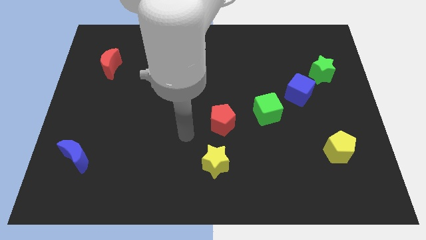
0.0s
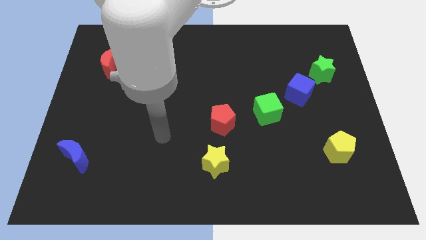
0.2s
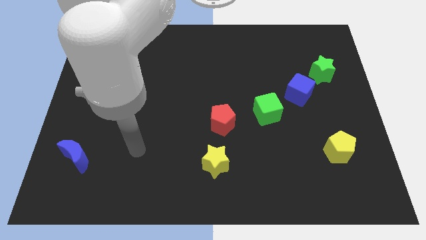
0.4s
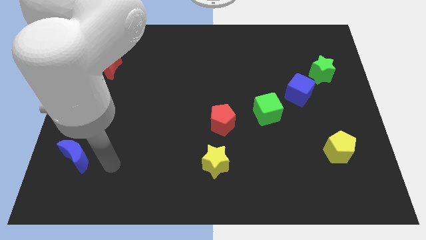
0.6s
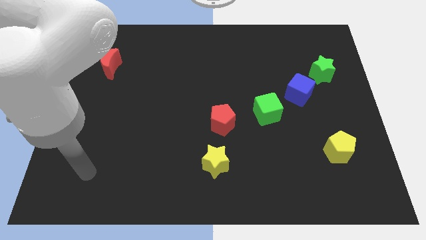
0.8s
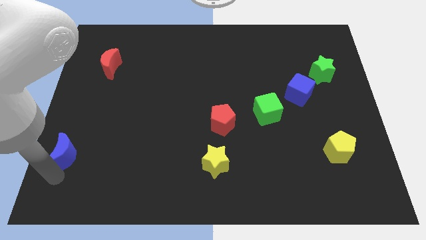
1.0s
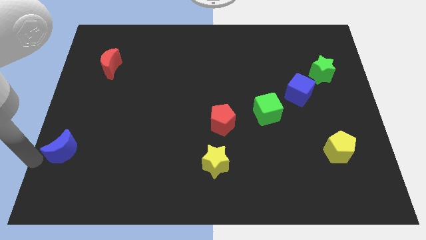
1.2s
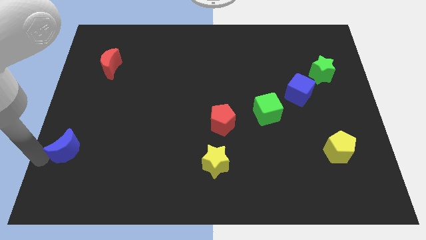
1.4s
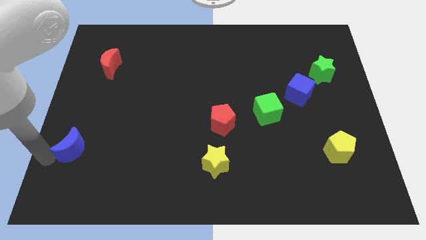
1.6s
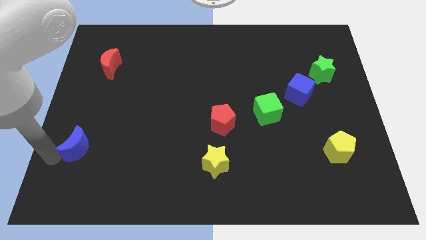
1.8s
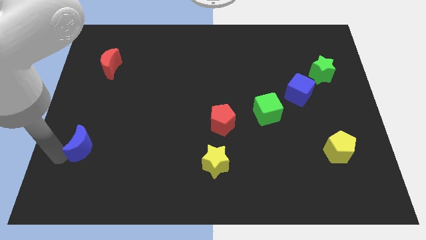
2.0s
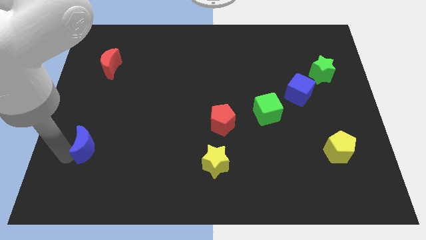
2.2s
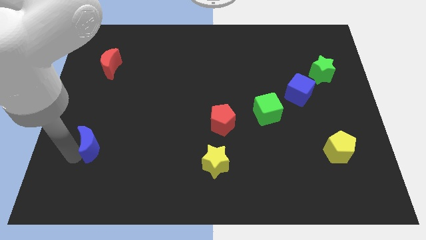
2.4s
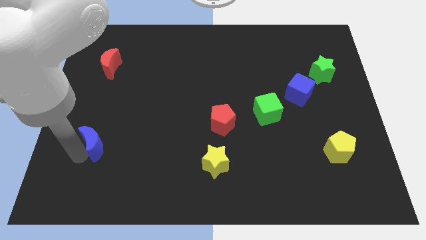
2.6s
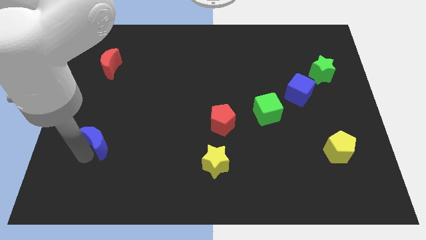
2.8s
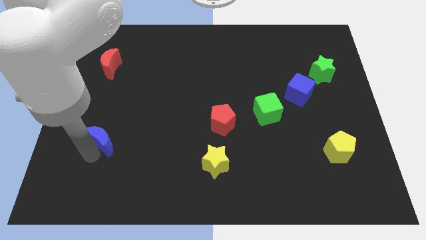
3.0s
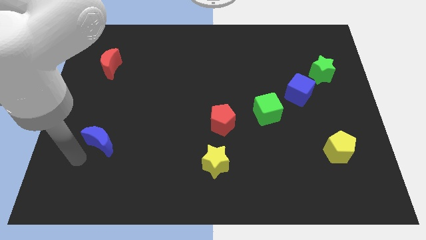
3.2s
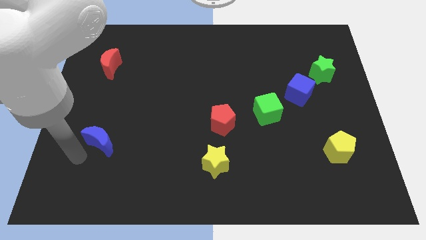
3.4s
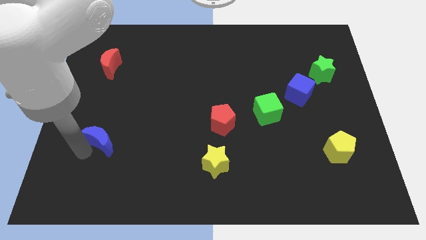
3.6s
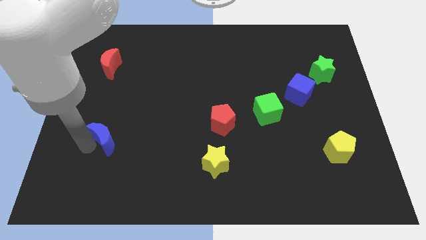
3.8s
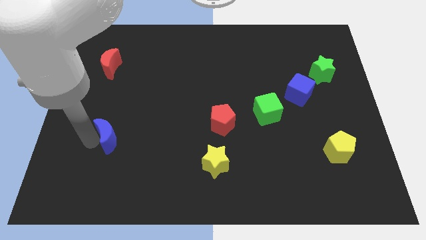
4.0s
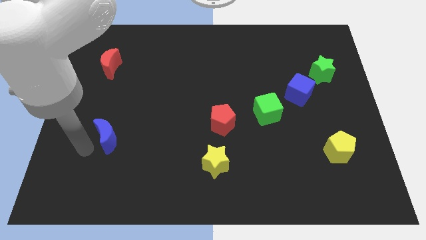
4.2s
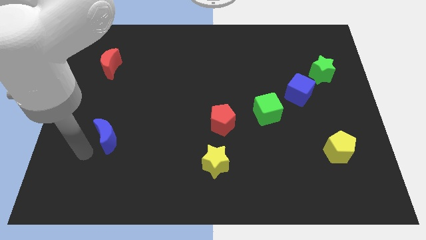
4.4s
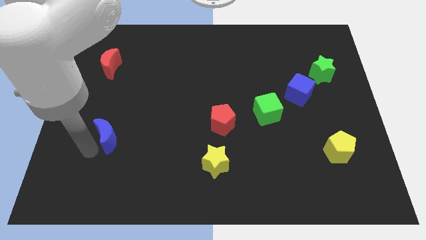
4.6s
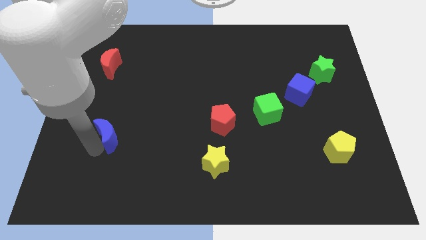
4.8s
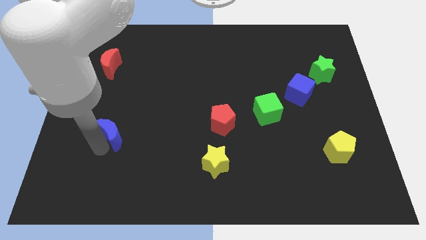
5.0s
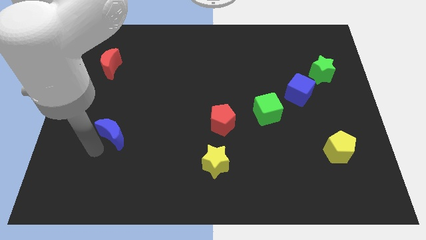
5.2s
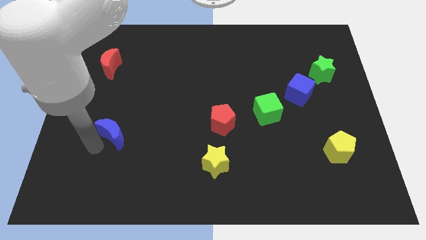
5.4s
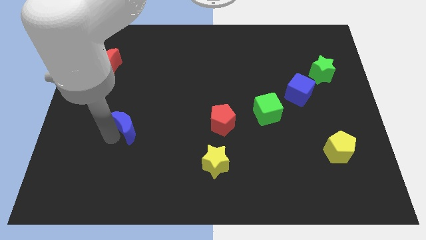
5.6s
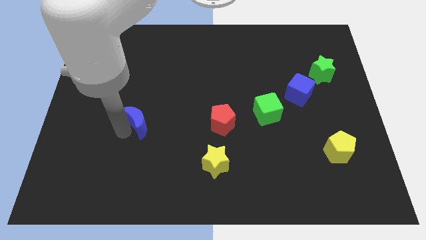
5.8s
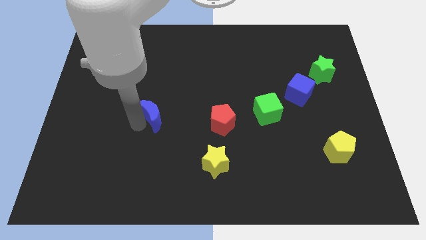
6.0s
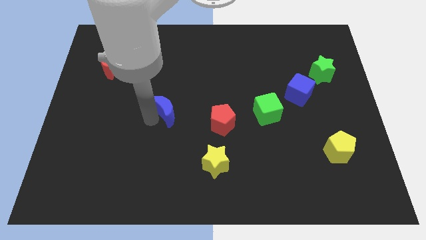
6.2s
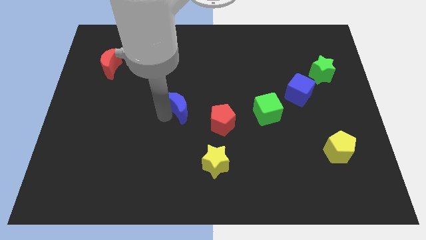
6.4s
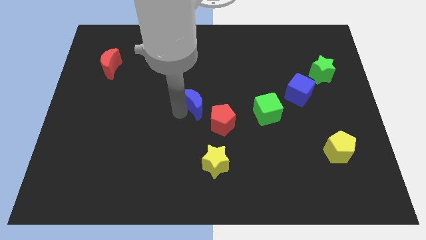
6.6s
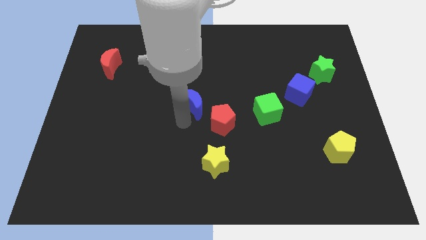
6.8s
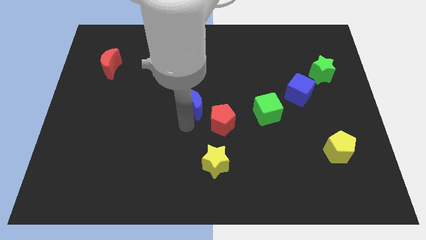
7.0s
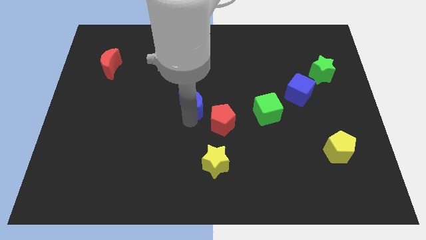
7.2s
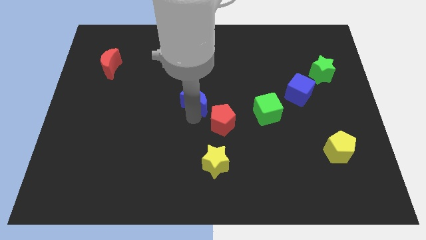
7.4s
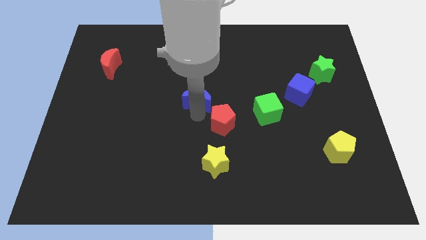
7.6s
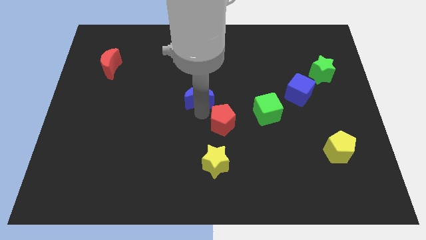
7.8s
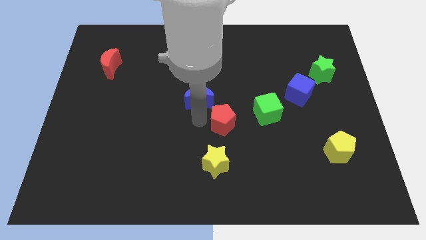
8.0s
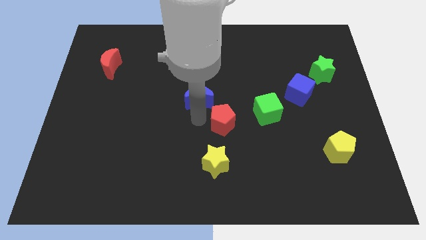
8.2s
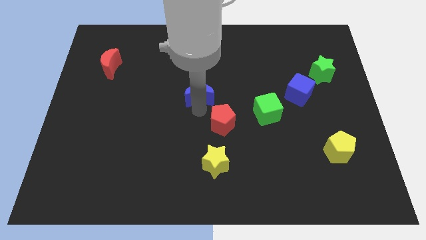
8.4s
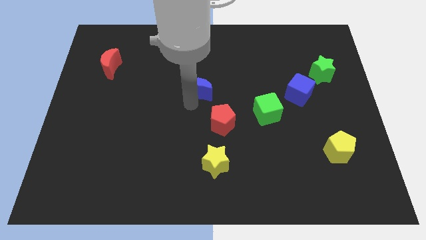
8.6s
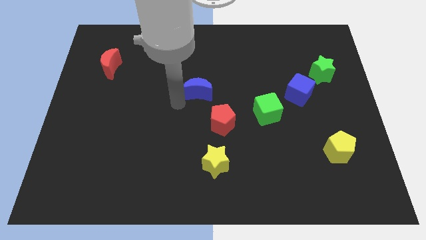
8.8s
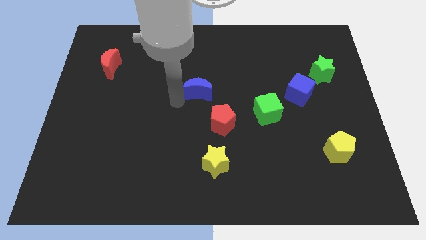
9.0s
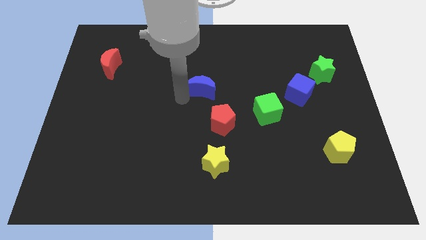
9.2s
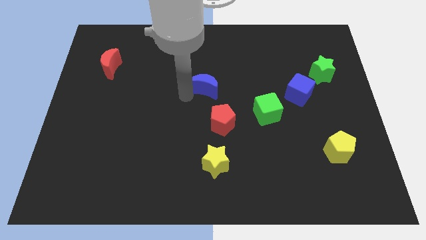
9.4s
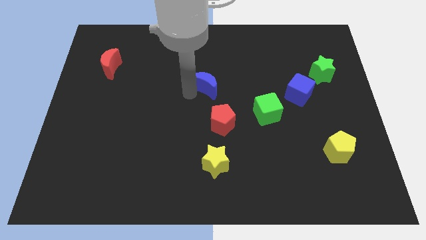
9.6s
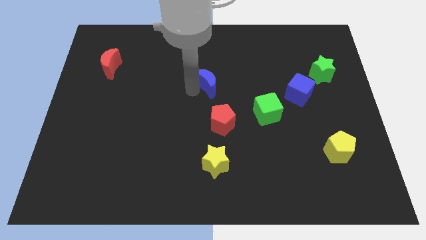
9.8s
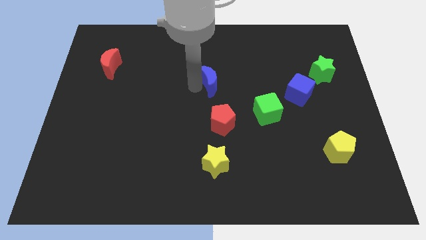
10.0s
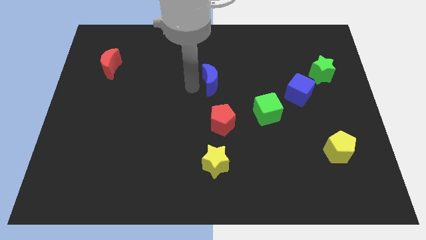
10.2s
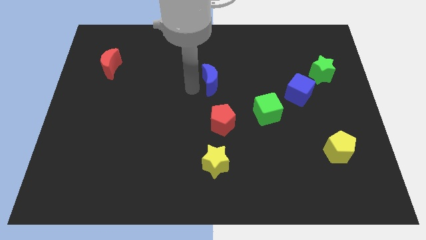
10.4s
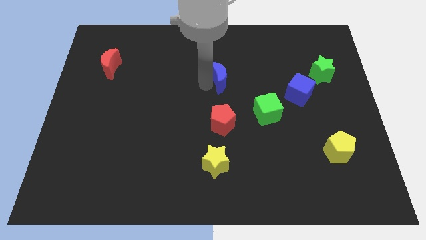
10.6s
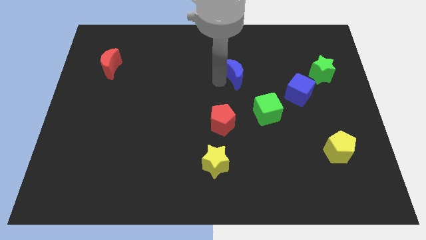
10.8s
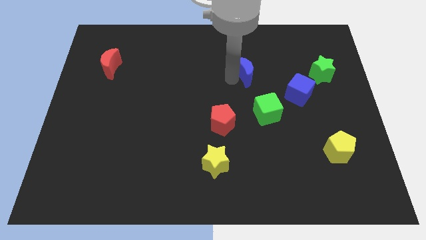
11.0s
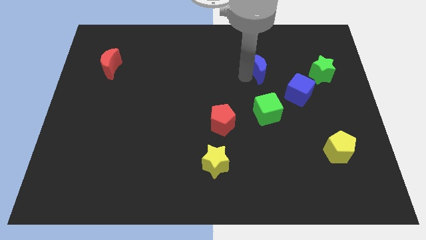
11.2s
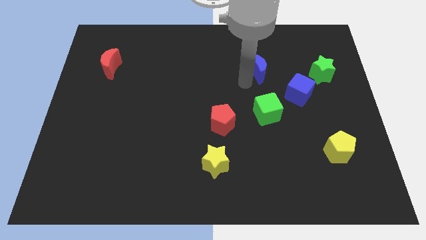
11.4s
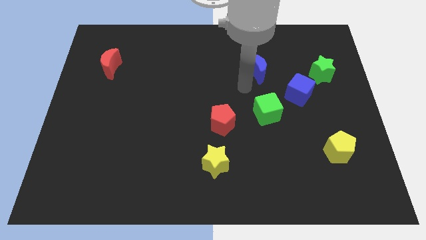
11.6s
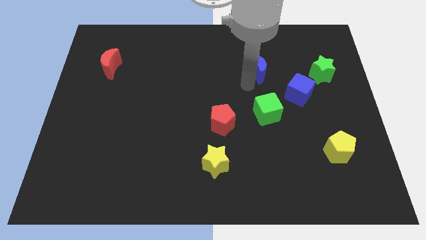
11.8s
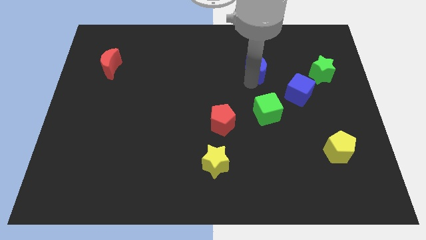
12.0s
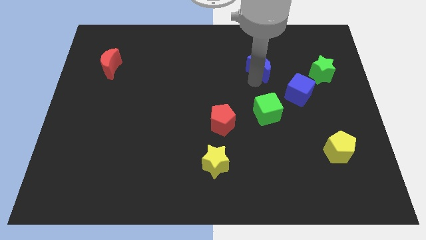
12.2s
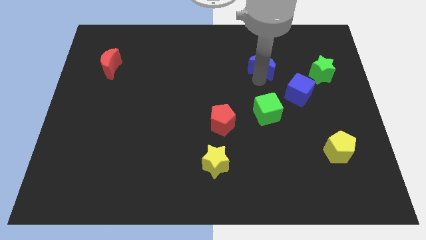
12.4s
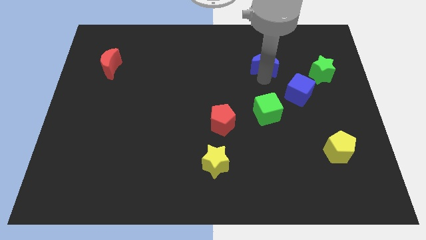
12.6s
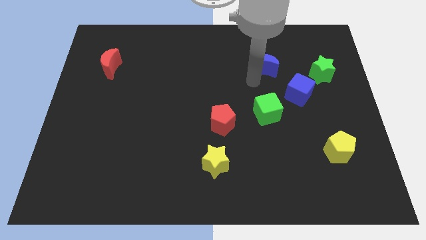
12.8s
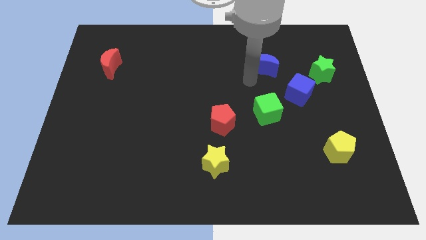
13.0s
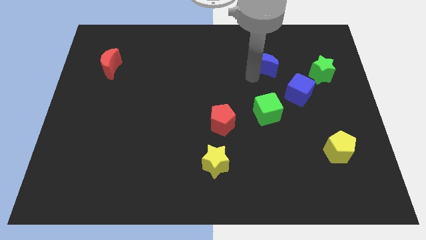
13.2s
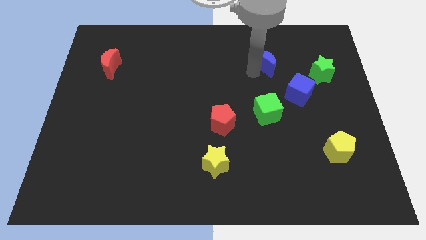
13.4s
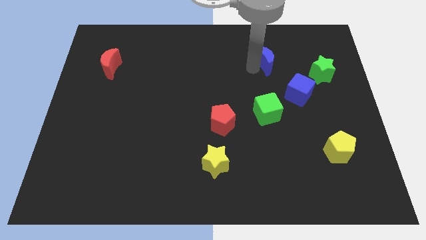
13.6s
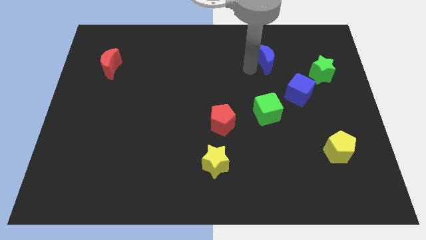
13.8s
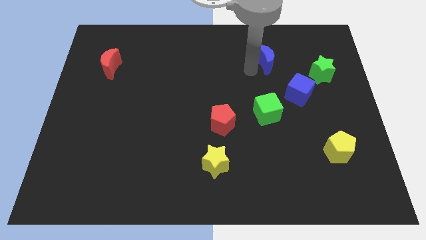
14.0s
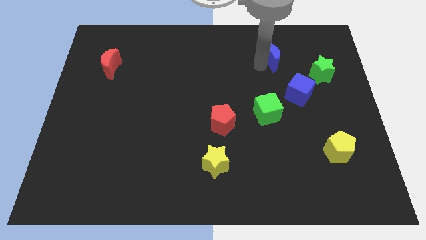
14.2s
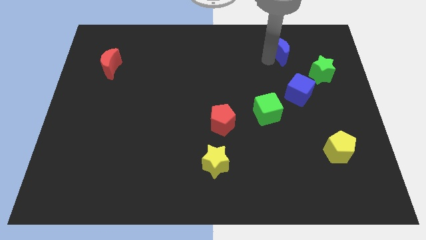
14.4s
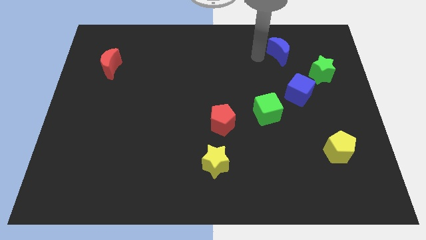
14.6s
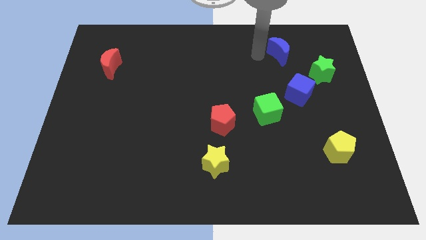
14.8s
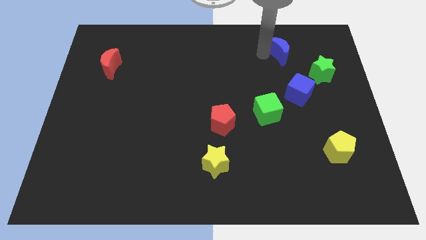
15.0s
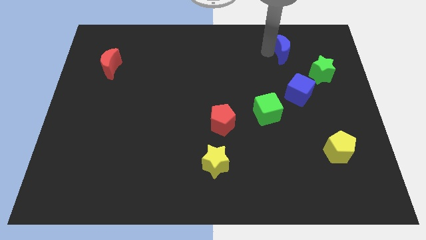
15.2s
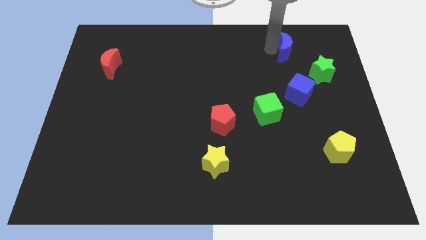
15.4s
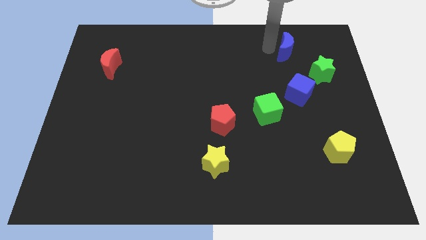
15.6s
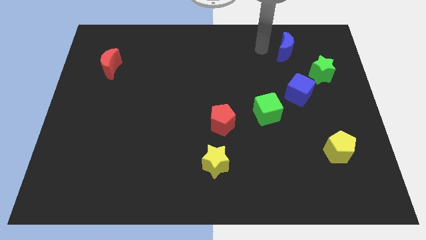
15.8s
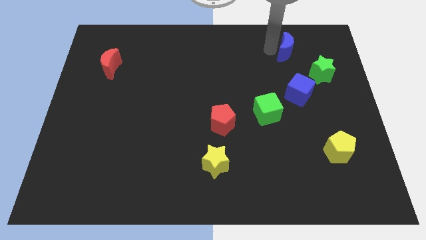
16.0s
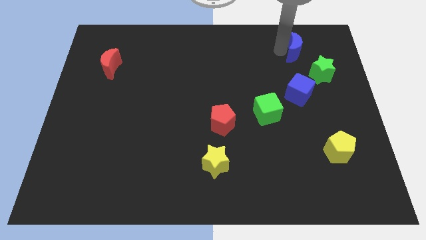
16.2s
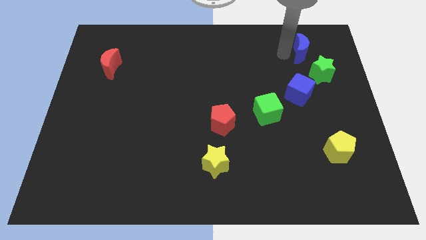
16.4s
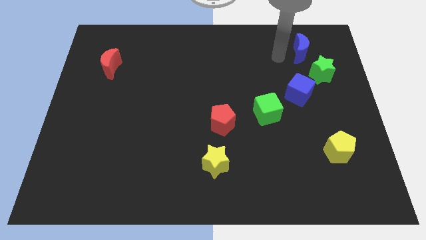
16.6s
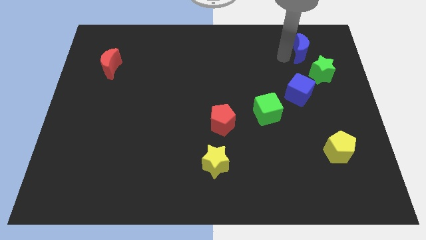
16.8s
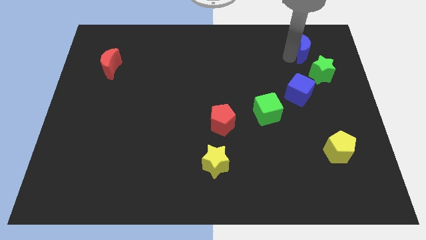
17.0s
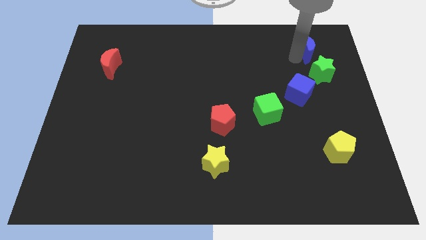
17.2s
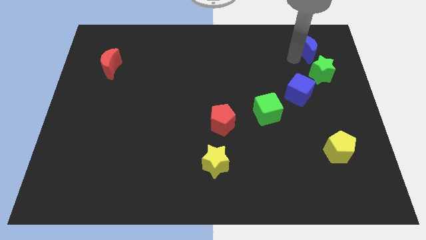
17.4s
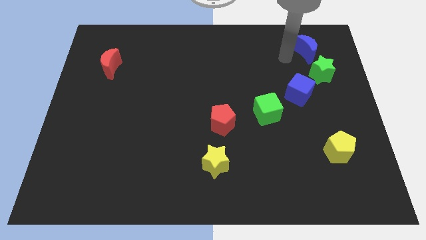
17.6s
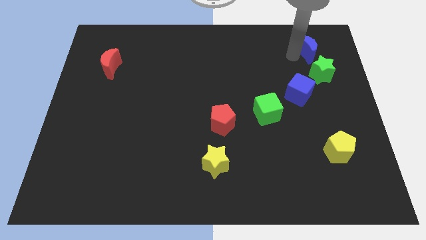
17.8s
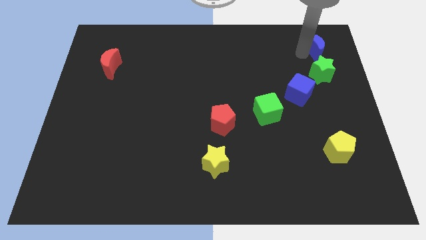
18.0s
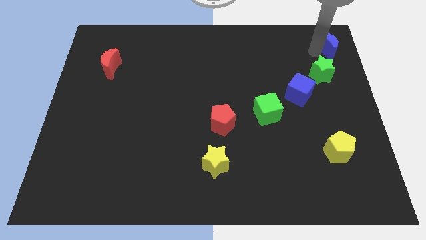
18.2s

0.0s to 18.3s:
put the blue moon to the top right corner
